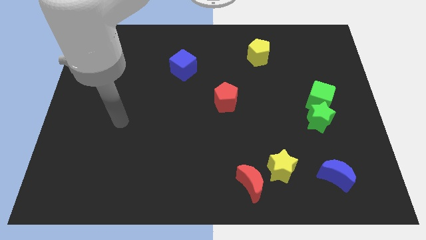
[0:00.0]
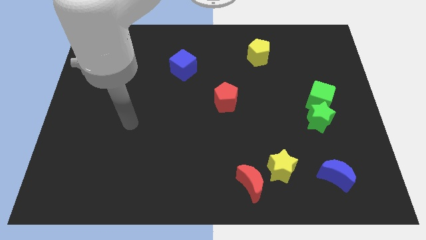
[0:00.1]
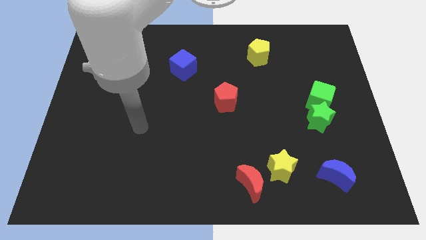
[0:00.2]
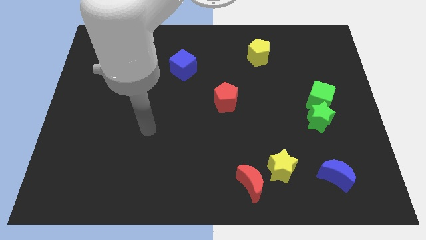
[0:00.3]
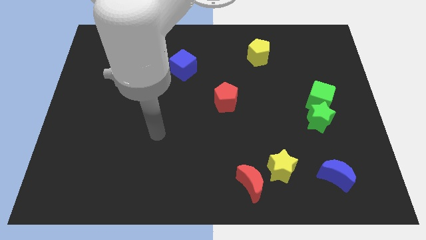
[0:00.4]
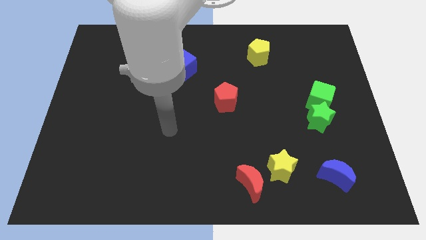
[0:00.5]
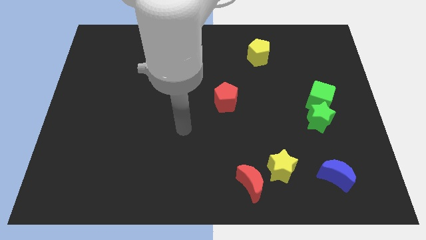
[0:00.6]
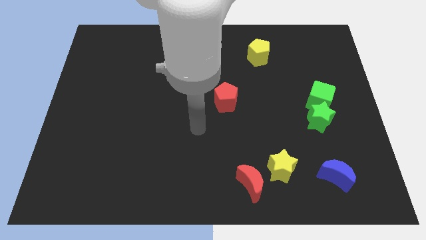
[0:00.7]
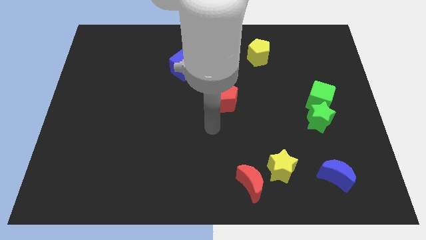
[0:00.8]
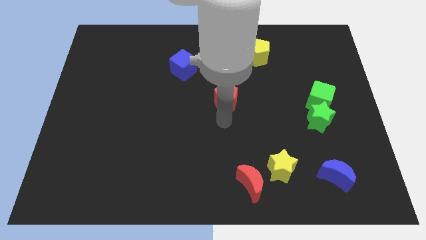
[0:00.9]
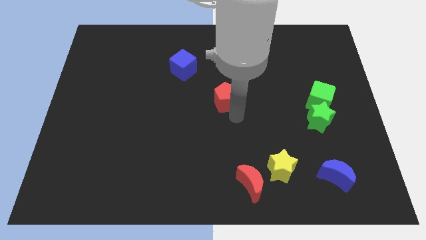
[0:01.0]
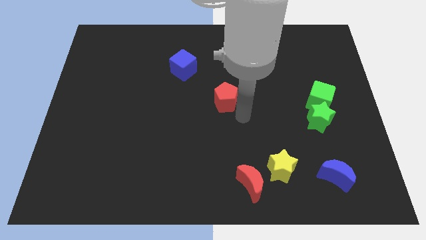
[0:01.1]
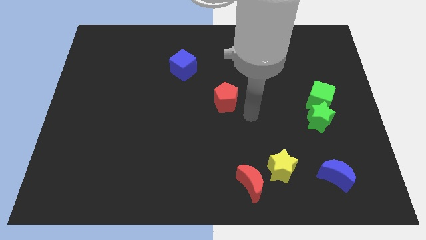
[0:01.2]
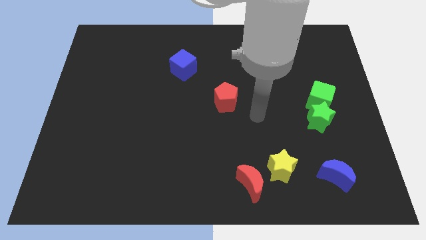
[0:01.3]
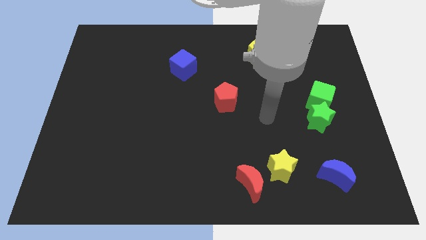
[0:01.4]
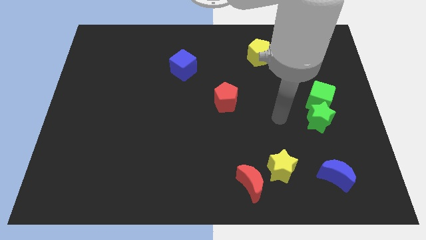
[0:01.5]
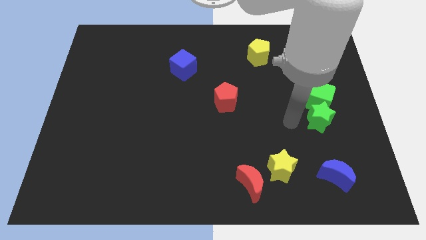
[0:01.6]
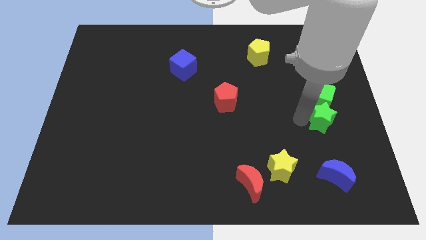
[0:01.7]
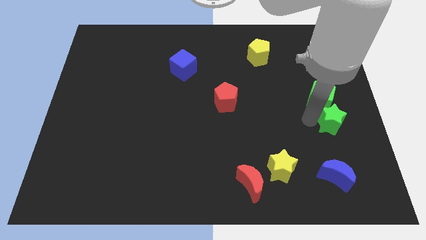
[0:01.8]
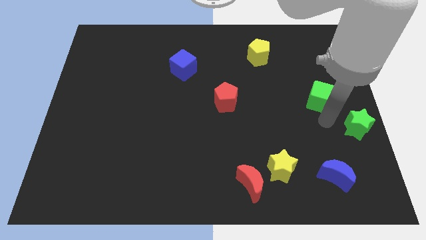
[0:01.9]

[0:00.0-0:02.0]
move the green cube away from the green star

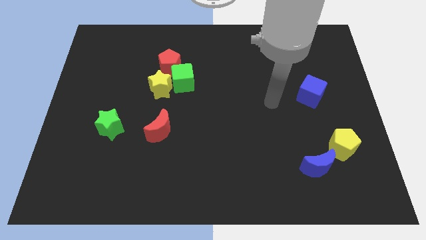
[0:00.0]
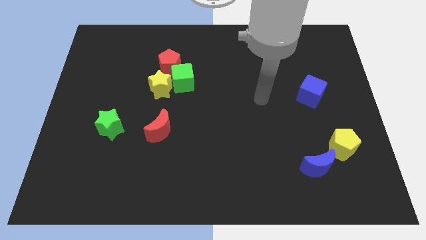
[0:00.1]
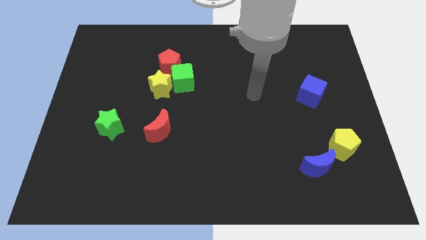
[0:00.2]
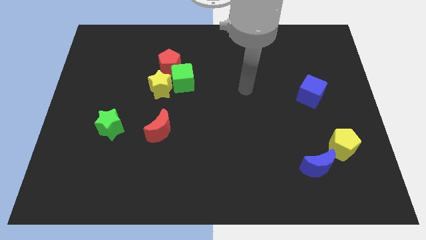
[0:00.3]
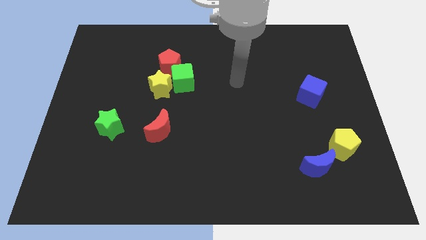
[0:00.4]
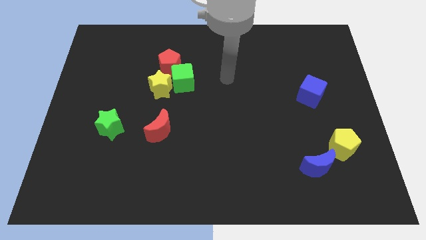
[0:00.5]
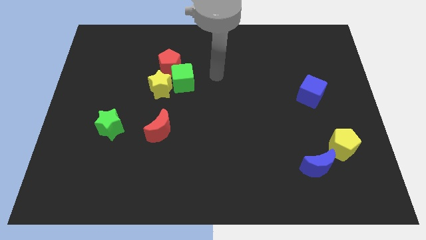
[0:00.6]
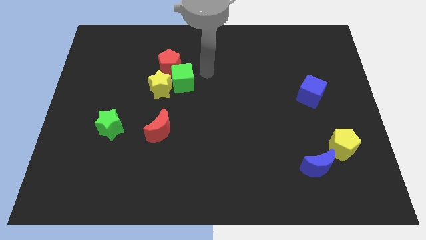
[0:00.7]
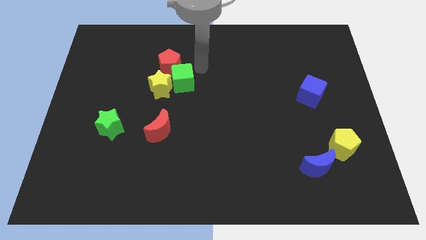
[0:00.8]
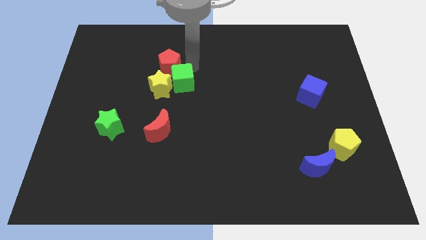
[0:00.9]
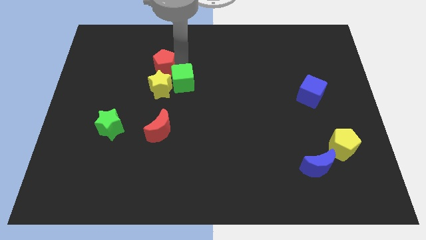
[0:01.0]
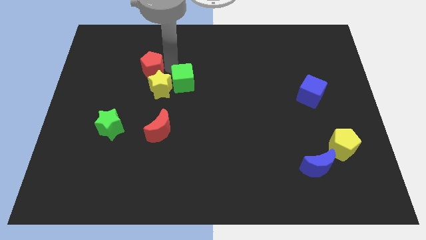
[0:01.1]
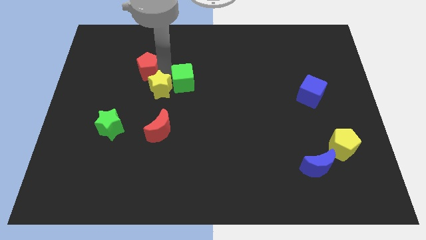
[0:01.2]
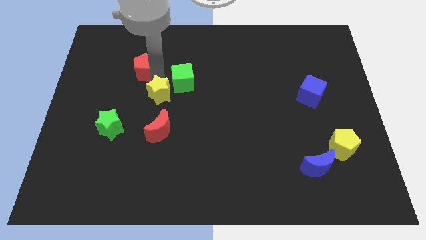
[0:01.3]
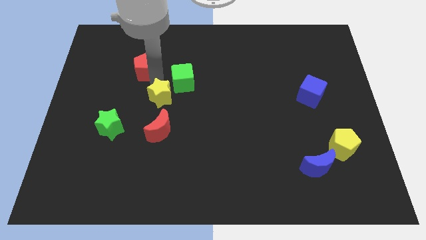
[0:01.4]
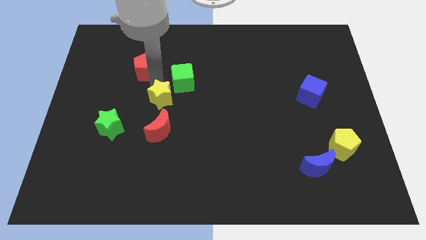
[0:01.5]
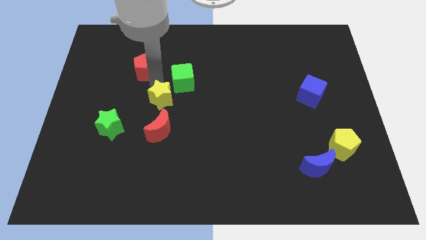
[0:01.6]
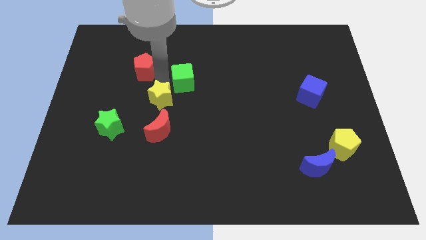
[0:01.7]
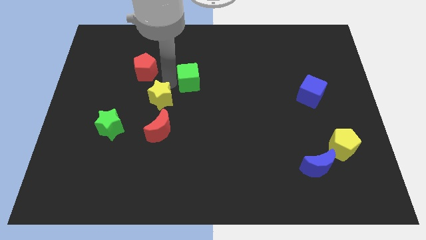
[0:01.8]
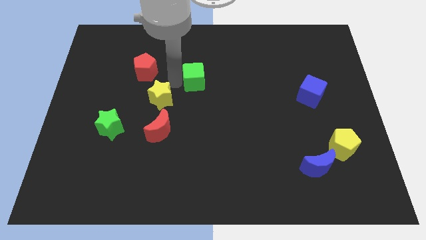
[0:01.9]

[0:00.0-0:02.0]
separate the green cube from the yellow star and red pentagon

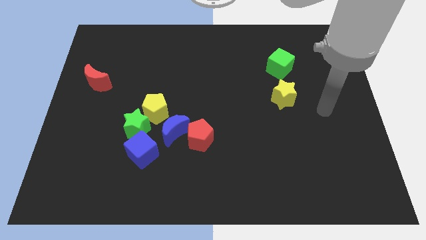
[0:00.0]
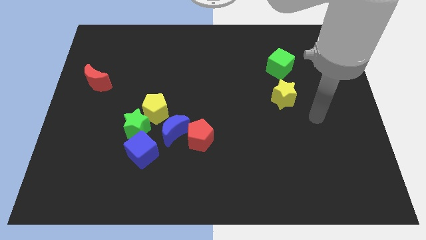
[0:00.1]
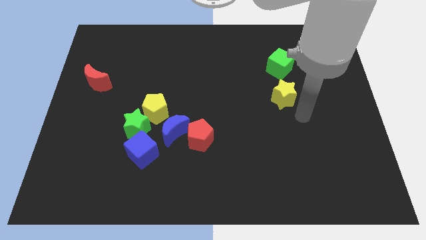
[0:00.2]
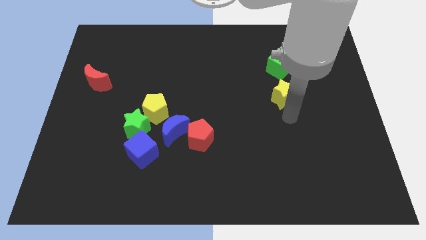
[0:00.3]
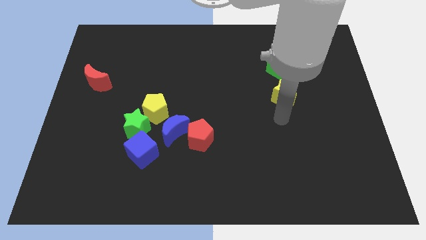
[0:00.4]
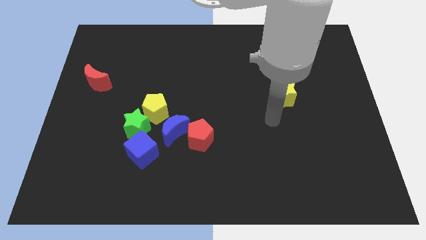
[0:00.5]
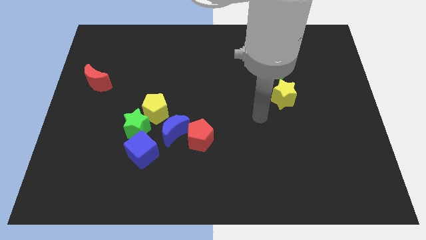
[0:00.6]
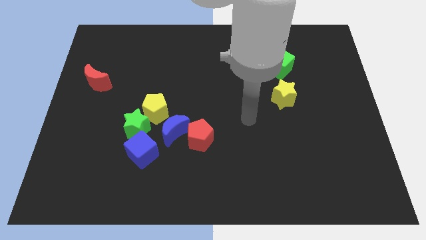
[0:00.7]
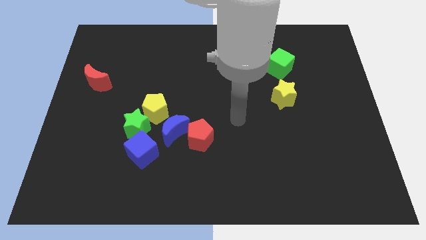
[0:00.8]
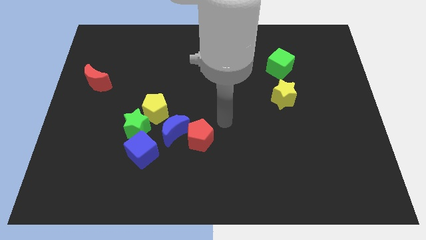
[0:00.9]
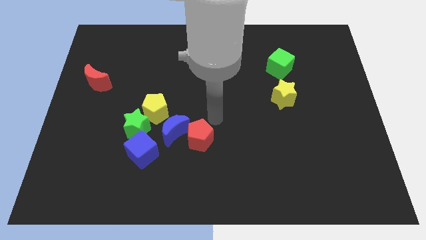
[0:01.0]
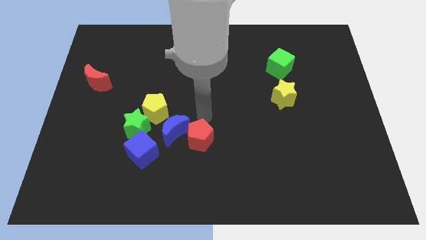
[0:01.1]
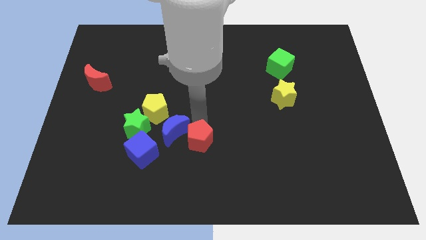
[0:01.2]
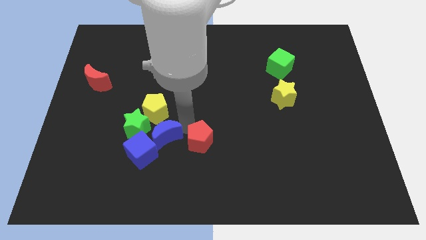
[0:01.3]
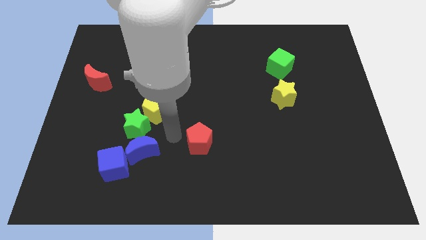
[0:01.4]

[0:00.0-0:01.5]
pull the red pentagon apart from the blue moon

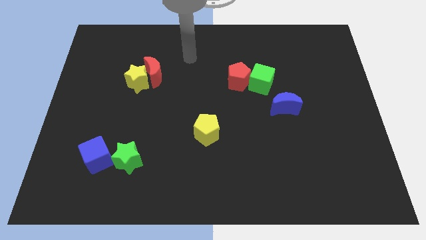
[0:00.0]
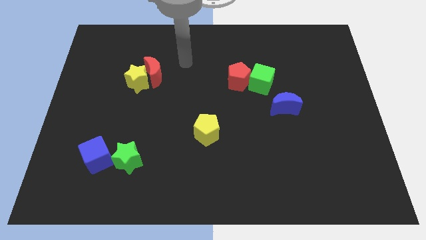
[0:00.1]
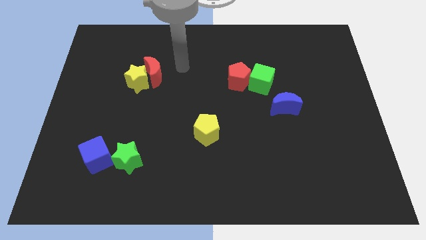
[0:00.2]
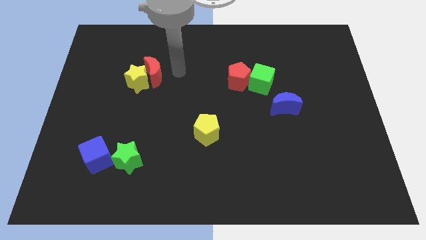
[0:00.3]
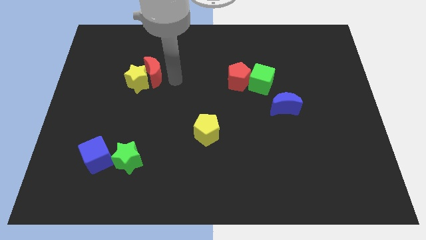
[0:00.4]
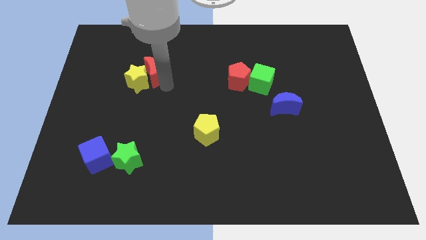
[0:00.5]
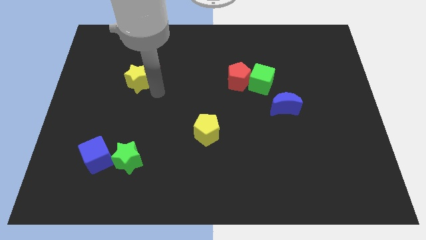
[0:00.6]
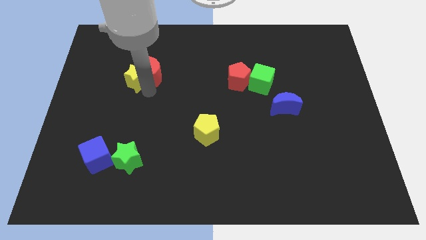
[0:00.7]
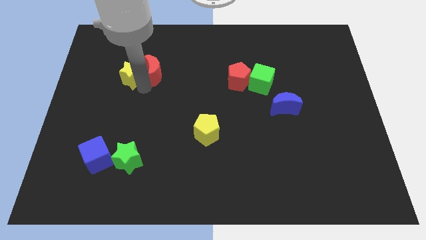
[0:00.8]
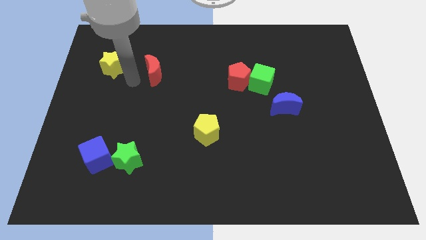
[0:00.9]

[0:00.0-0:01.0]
separate the red moon from the yellow star

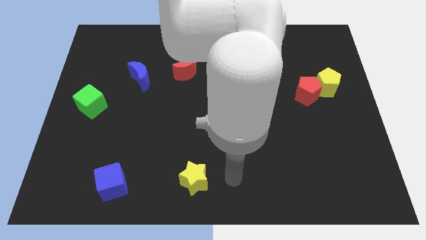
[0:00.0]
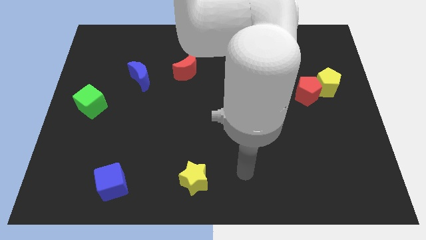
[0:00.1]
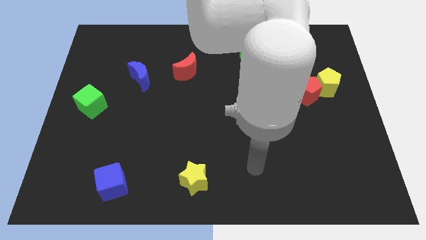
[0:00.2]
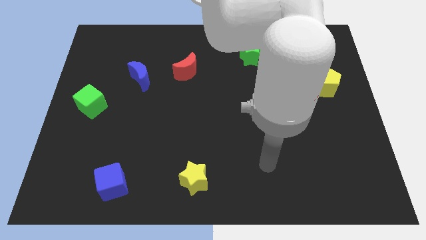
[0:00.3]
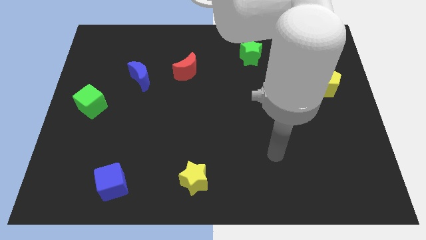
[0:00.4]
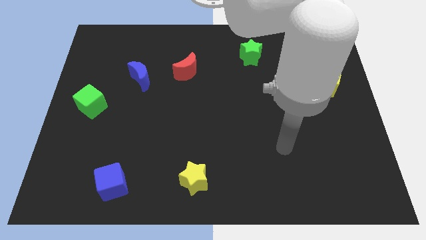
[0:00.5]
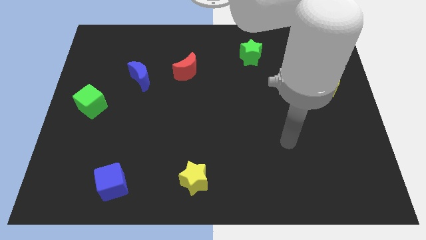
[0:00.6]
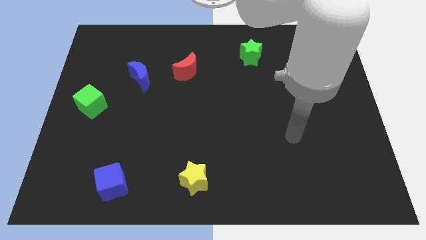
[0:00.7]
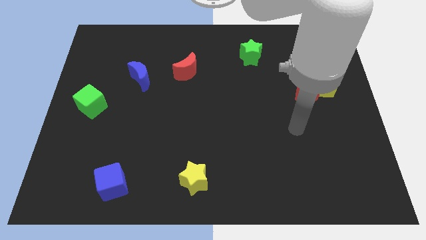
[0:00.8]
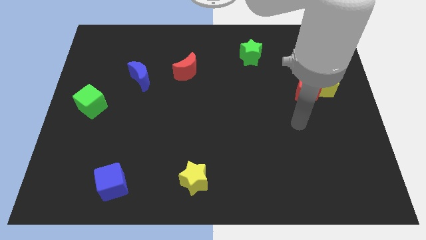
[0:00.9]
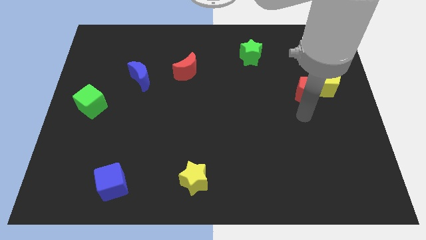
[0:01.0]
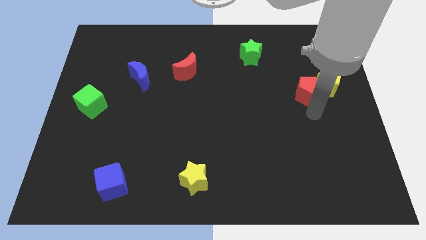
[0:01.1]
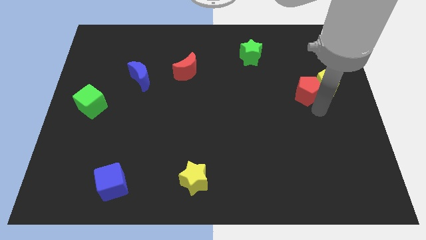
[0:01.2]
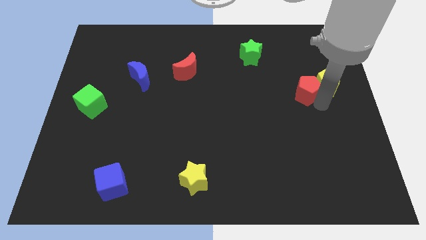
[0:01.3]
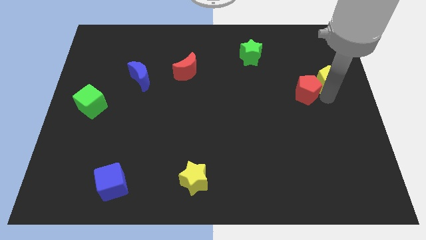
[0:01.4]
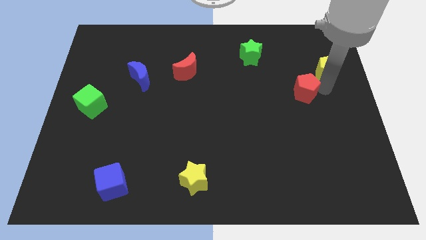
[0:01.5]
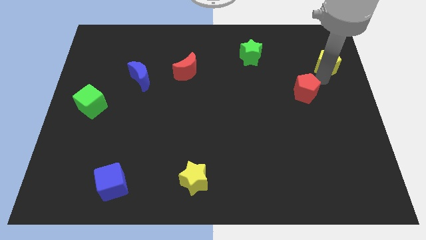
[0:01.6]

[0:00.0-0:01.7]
pull the red pentagon apart from the yellow pentagon

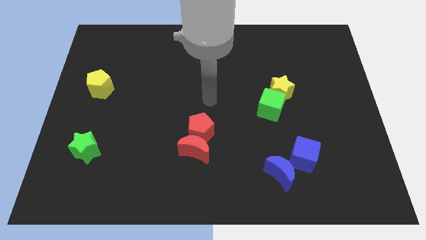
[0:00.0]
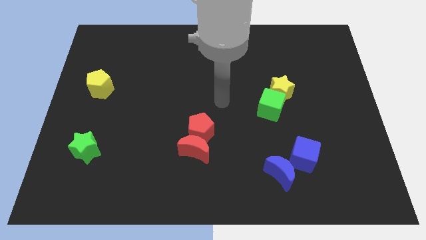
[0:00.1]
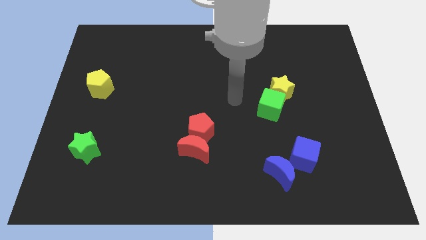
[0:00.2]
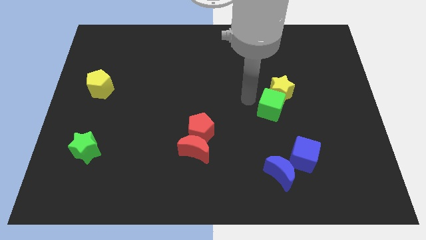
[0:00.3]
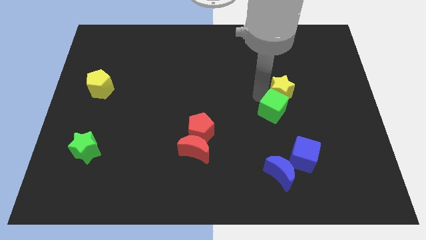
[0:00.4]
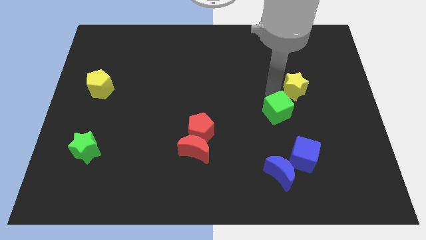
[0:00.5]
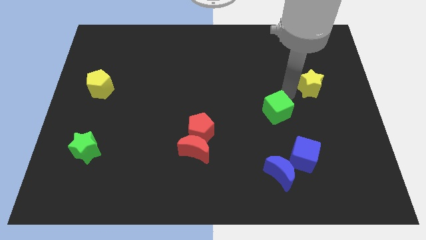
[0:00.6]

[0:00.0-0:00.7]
move the green cube away from the yellow star

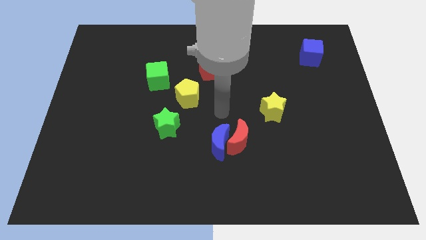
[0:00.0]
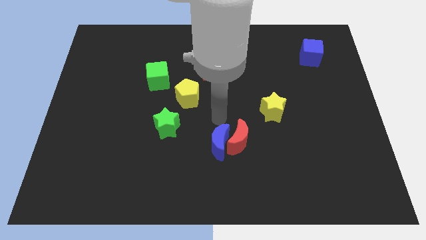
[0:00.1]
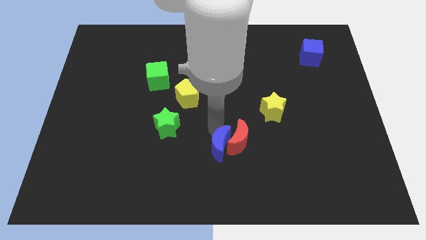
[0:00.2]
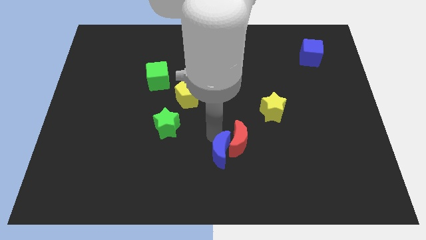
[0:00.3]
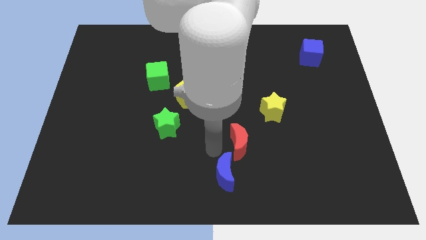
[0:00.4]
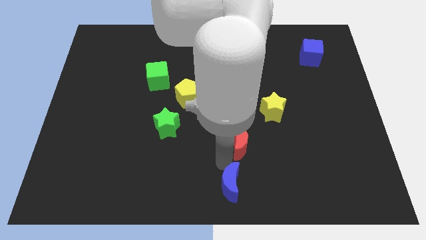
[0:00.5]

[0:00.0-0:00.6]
pull the red moon apart from the blue moon
